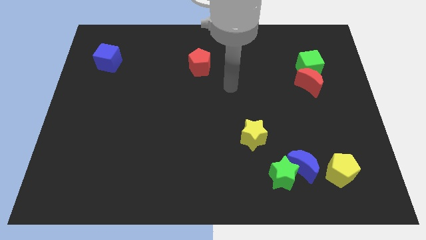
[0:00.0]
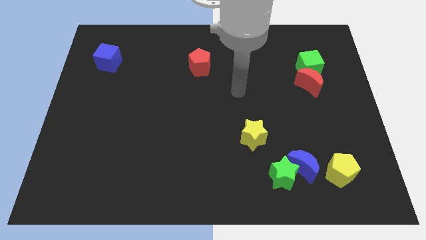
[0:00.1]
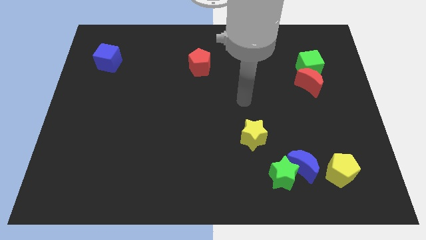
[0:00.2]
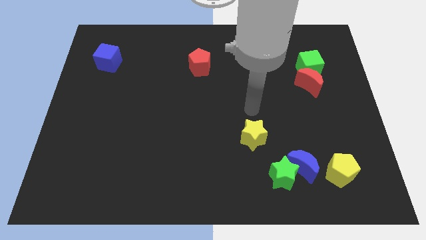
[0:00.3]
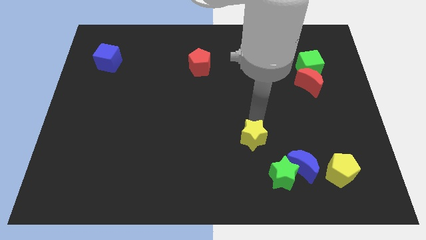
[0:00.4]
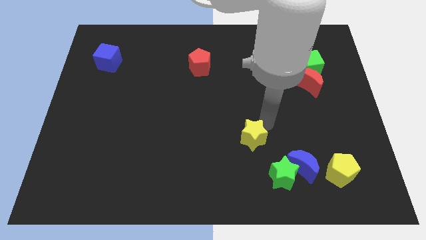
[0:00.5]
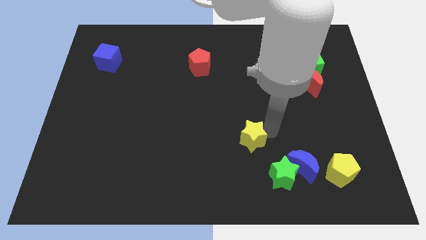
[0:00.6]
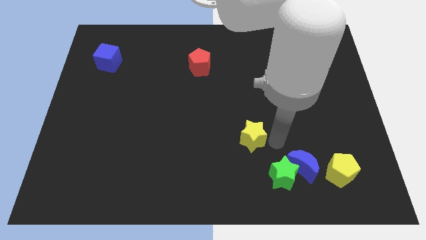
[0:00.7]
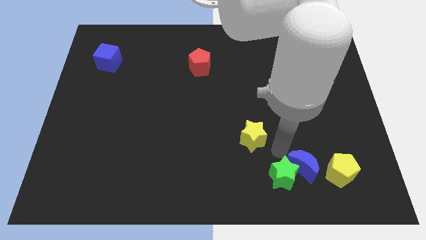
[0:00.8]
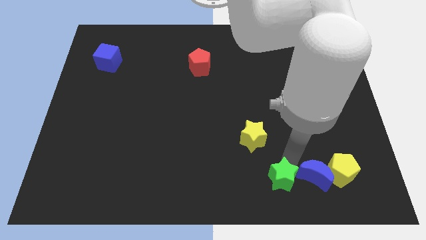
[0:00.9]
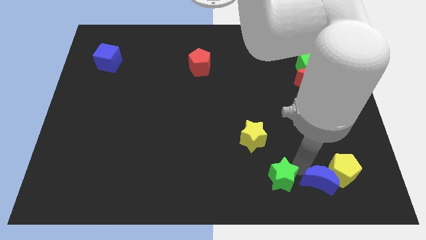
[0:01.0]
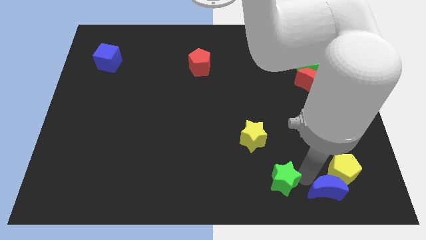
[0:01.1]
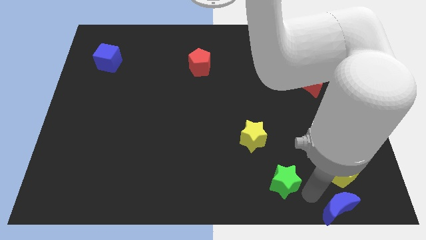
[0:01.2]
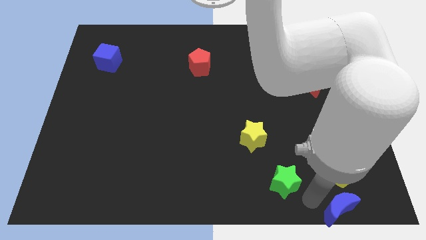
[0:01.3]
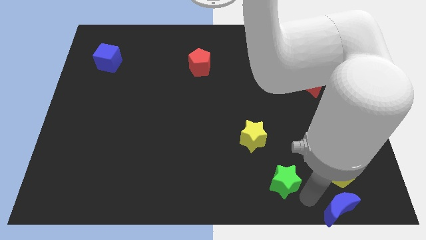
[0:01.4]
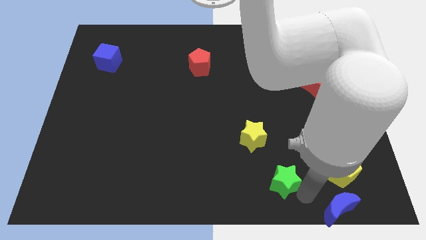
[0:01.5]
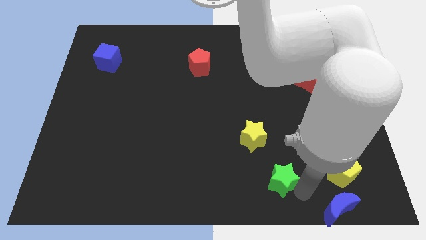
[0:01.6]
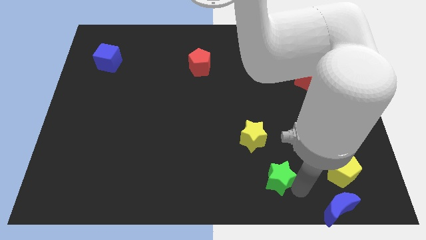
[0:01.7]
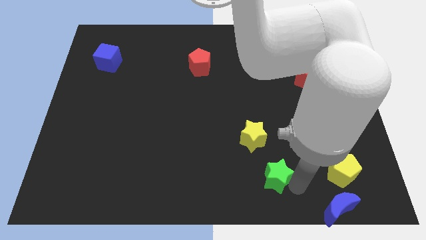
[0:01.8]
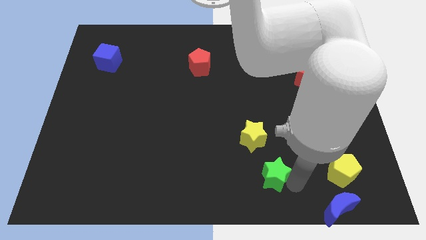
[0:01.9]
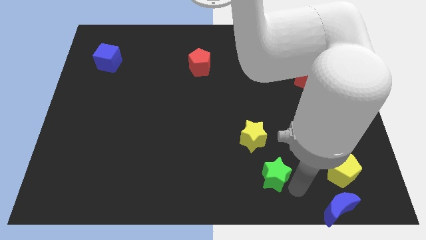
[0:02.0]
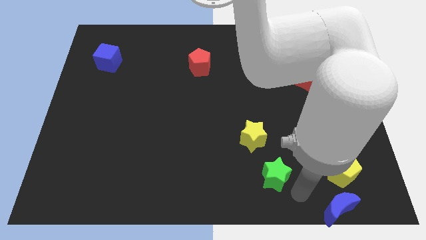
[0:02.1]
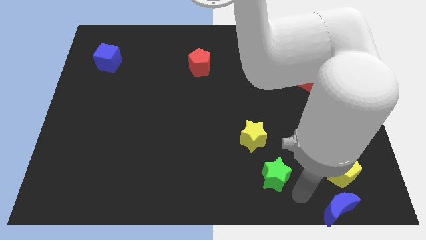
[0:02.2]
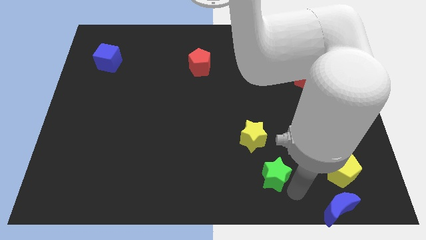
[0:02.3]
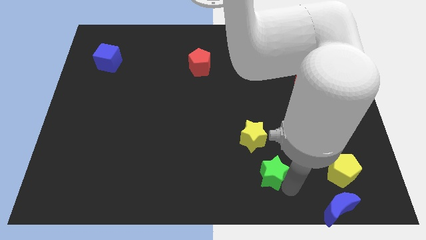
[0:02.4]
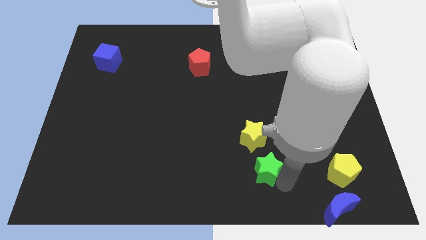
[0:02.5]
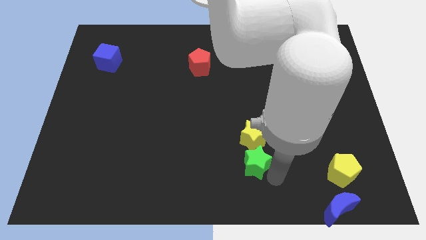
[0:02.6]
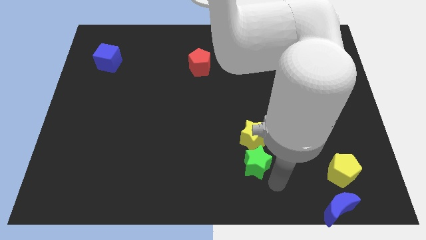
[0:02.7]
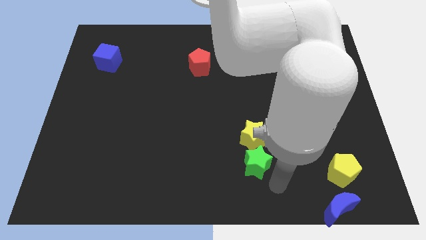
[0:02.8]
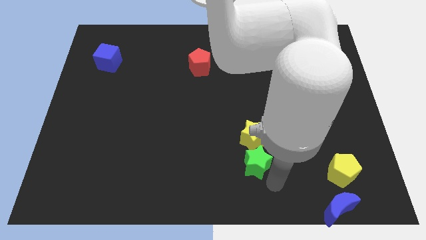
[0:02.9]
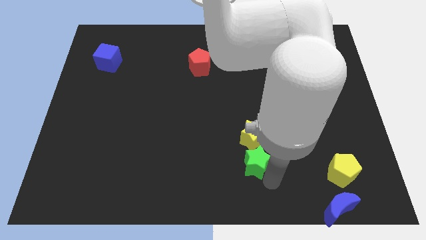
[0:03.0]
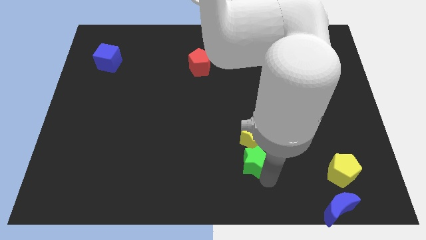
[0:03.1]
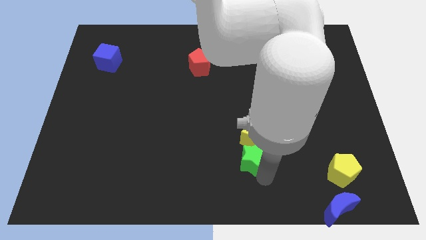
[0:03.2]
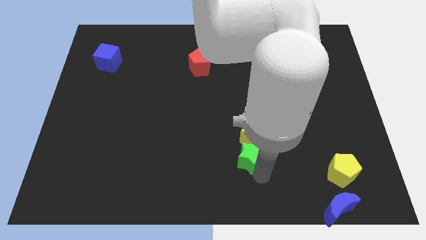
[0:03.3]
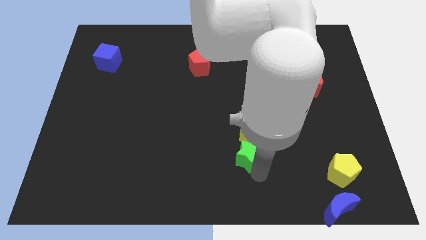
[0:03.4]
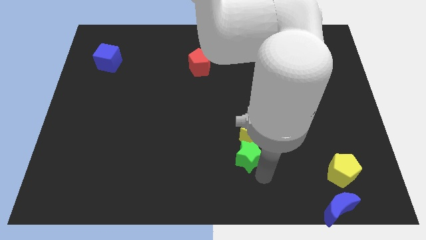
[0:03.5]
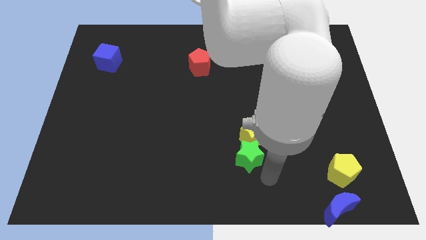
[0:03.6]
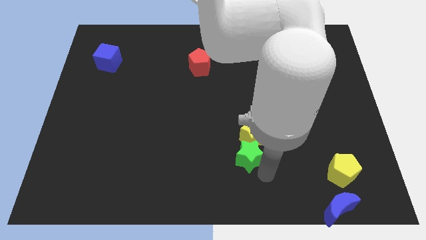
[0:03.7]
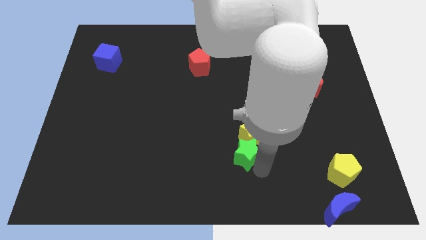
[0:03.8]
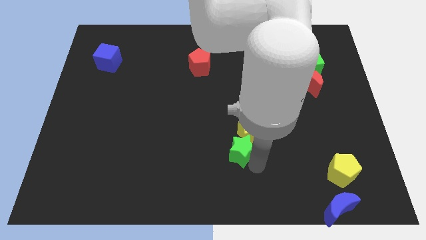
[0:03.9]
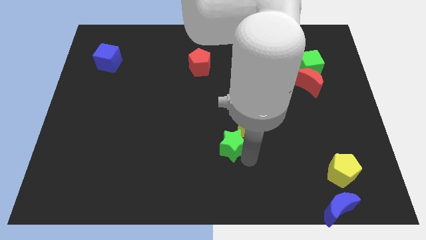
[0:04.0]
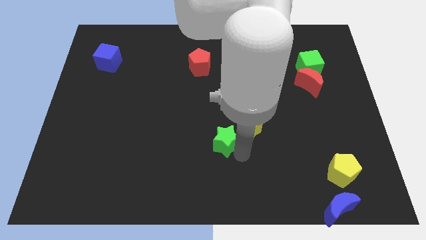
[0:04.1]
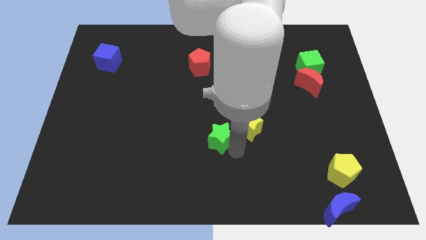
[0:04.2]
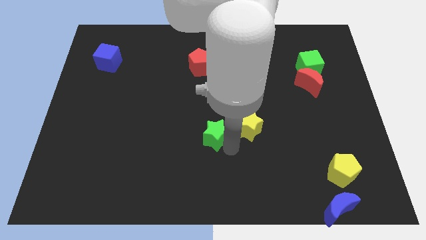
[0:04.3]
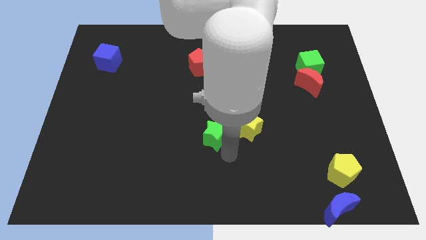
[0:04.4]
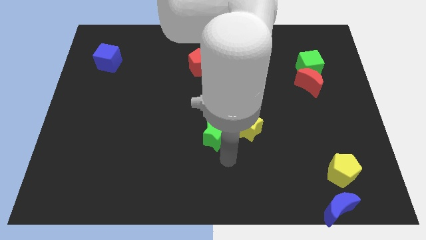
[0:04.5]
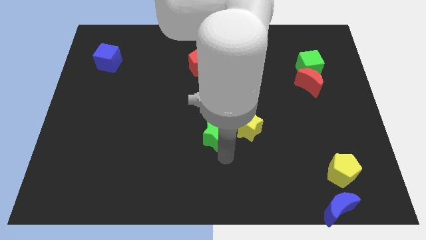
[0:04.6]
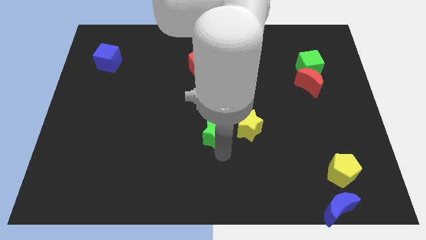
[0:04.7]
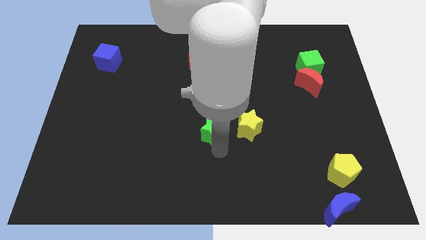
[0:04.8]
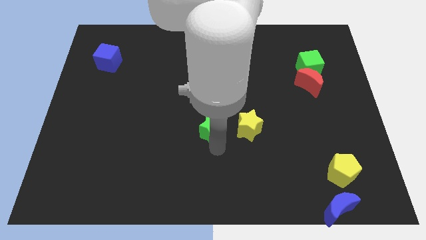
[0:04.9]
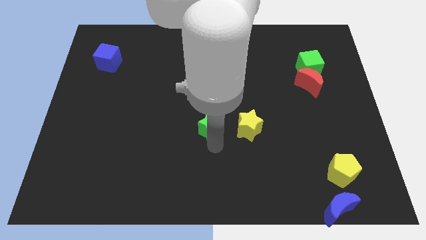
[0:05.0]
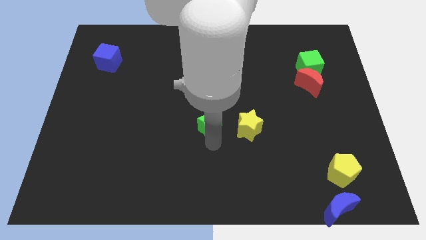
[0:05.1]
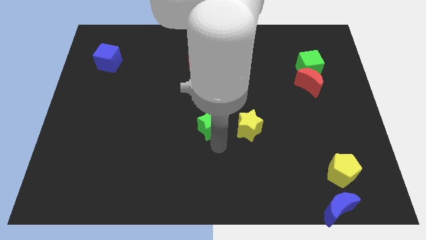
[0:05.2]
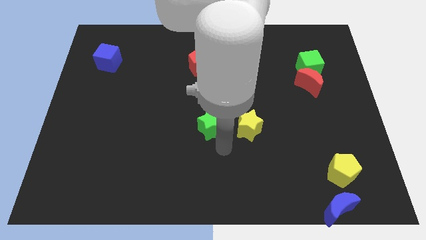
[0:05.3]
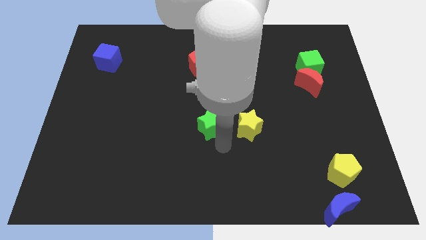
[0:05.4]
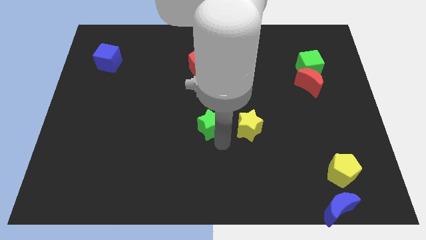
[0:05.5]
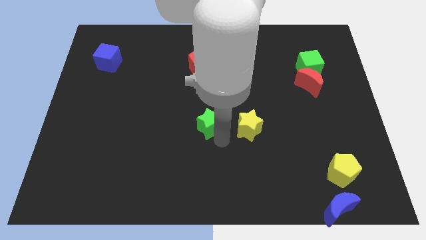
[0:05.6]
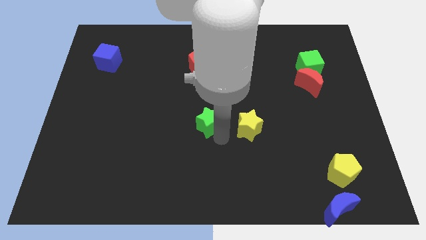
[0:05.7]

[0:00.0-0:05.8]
push the green star diagonally upwards and left

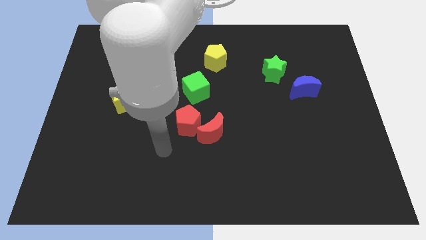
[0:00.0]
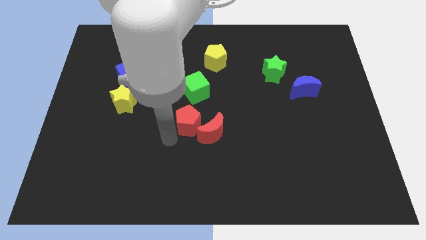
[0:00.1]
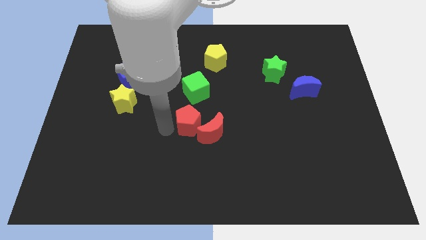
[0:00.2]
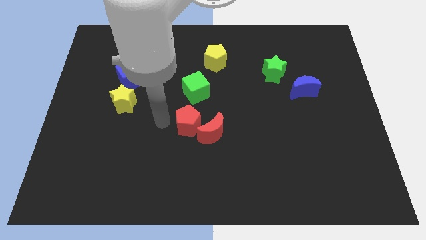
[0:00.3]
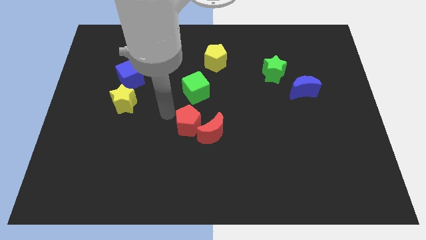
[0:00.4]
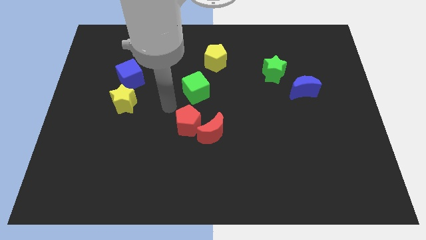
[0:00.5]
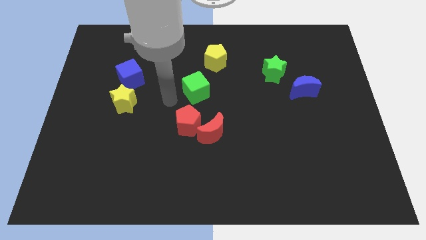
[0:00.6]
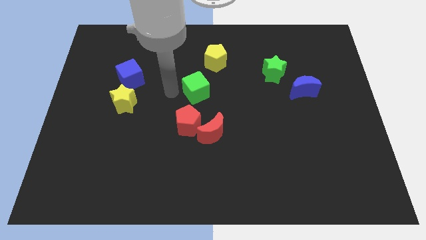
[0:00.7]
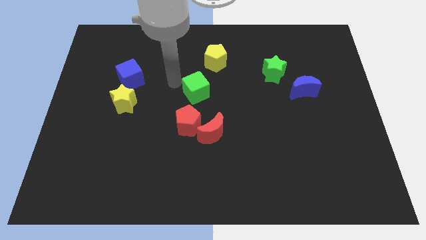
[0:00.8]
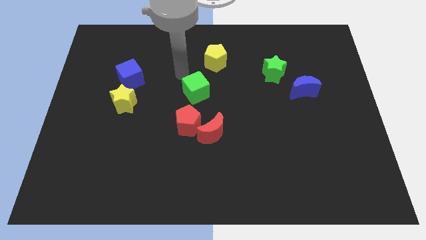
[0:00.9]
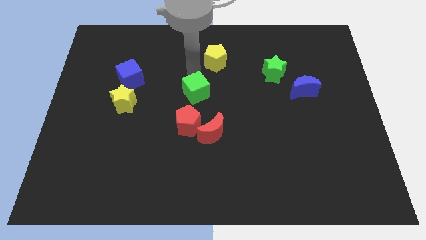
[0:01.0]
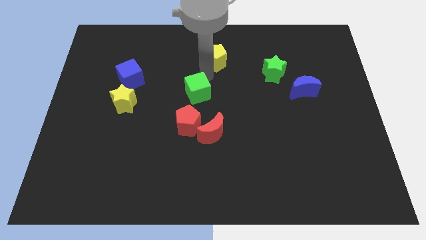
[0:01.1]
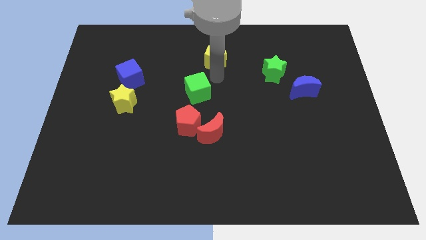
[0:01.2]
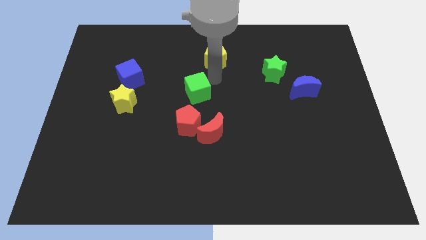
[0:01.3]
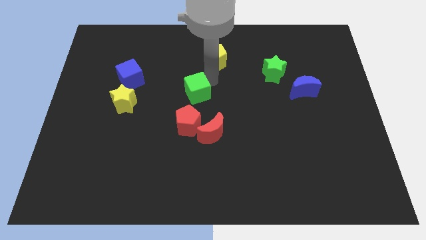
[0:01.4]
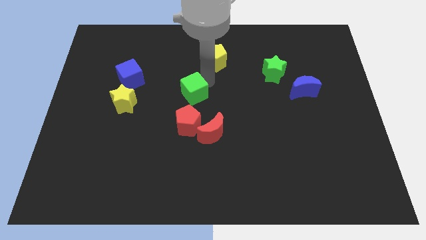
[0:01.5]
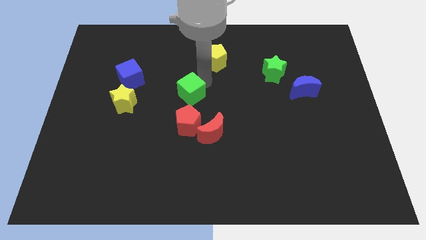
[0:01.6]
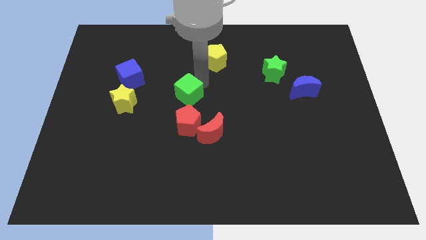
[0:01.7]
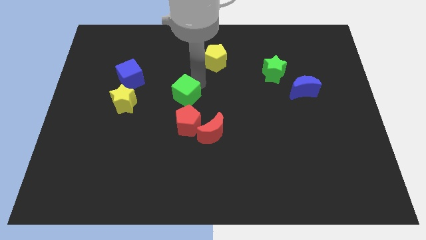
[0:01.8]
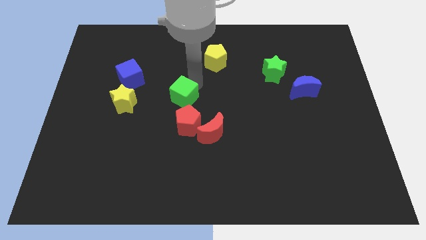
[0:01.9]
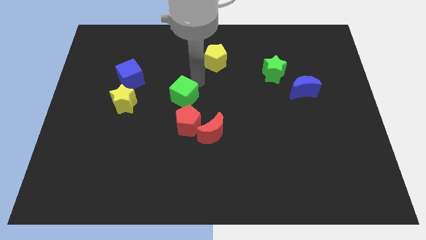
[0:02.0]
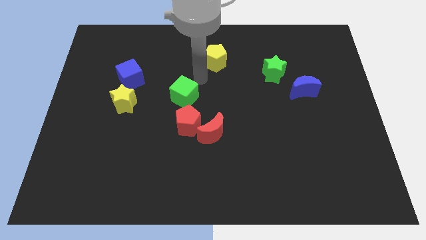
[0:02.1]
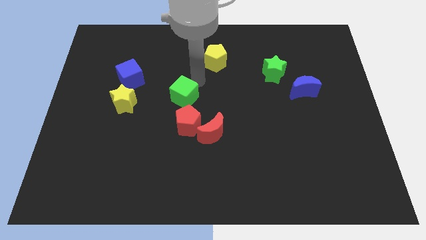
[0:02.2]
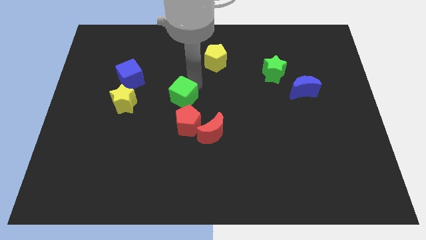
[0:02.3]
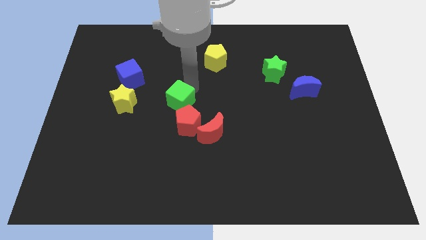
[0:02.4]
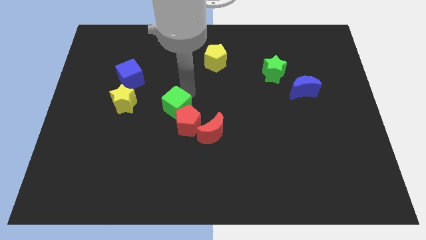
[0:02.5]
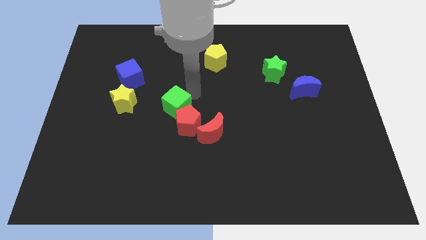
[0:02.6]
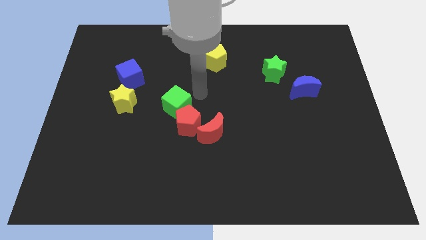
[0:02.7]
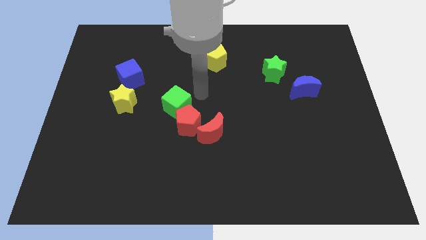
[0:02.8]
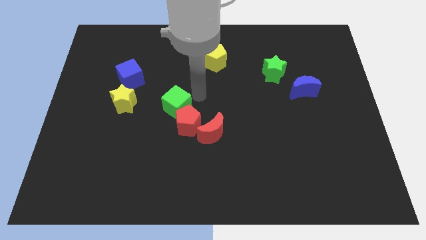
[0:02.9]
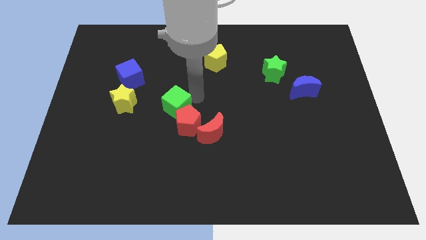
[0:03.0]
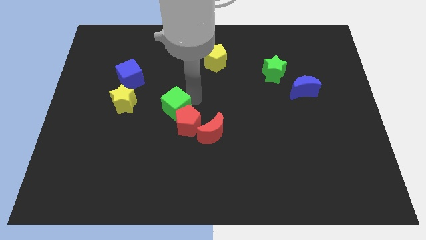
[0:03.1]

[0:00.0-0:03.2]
push the green cube downwards and left a little
